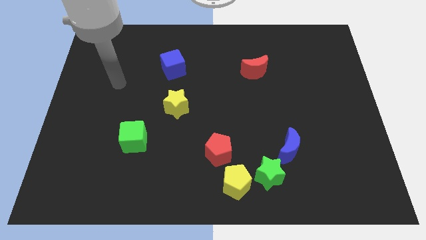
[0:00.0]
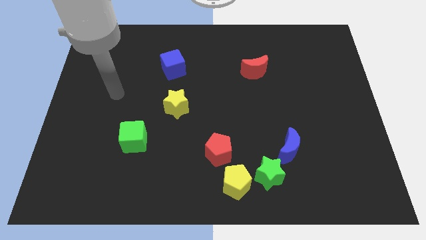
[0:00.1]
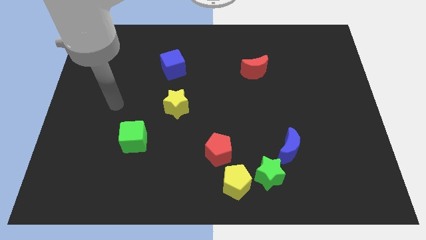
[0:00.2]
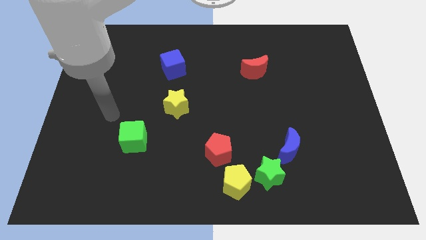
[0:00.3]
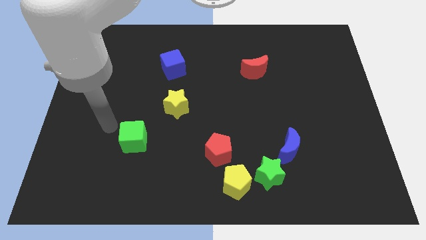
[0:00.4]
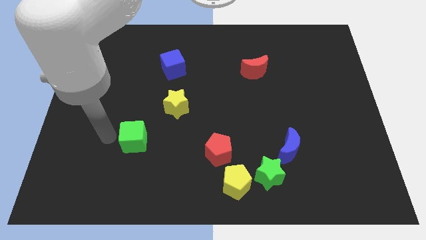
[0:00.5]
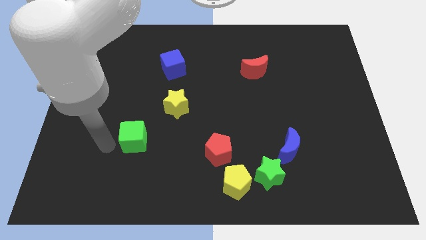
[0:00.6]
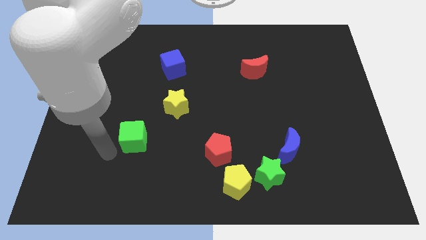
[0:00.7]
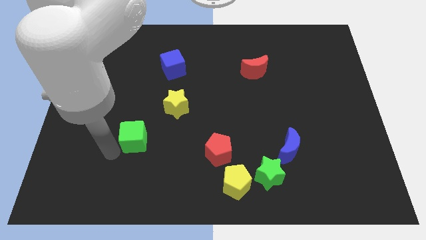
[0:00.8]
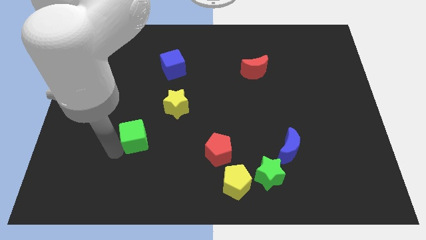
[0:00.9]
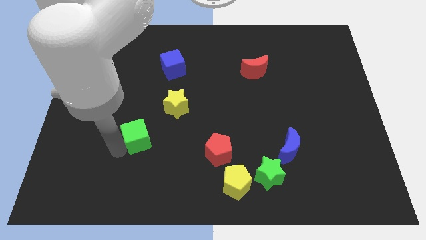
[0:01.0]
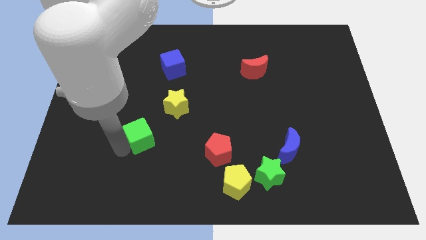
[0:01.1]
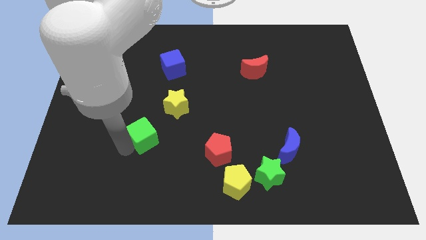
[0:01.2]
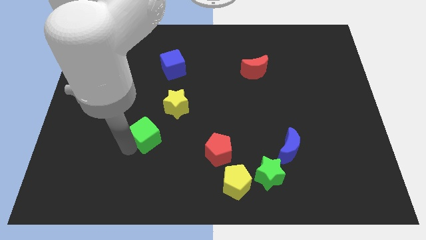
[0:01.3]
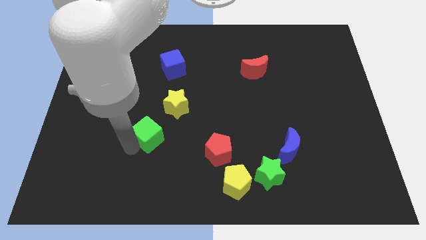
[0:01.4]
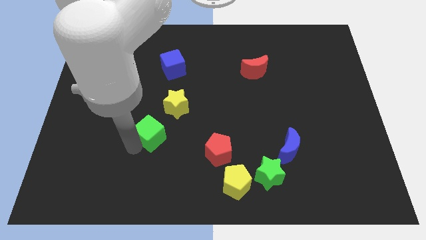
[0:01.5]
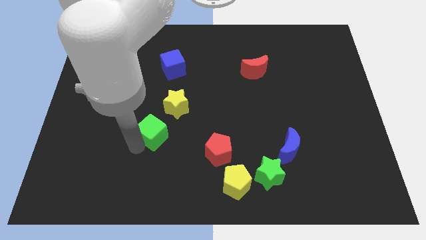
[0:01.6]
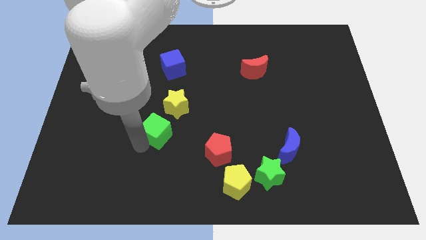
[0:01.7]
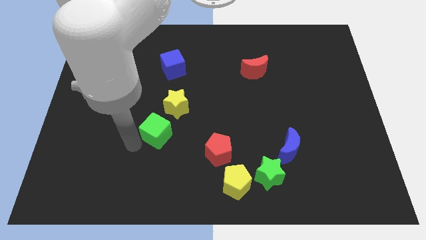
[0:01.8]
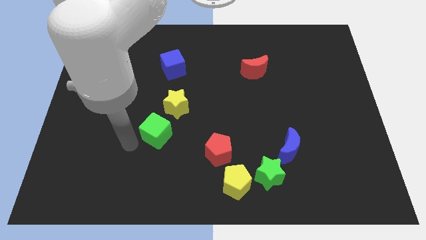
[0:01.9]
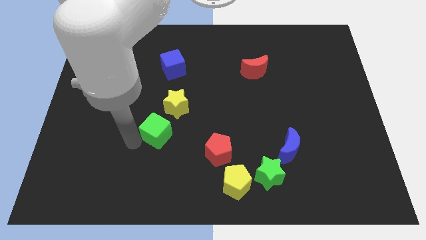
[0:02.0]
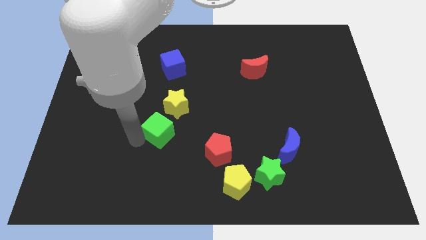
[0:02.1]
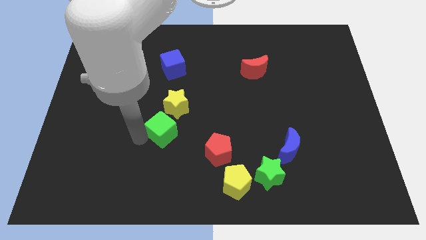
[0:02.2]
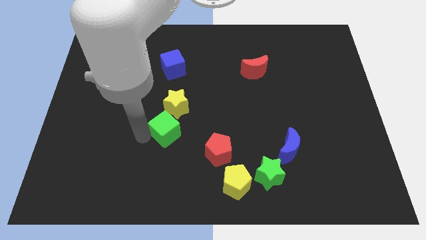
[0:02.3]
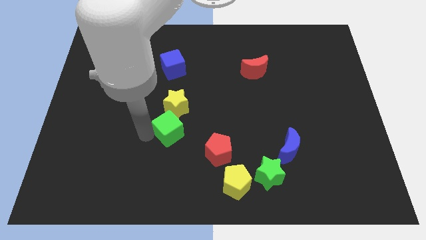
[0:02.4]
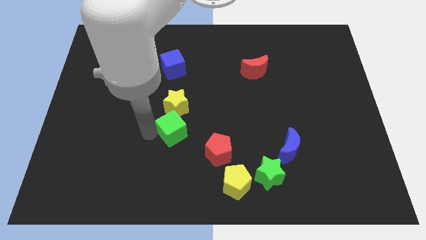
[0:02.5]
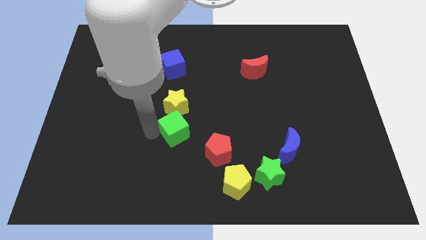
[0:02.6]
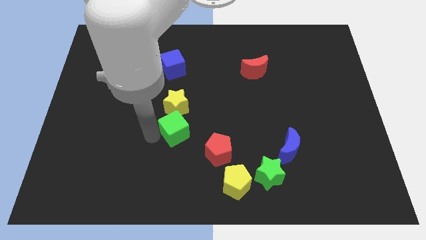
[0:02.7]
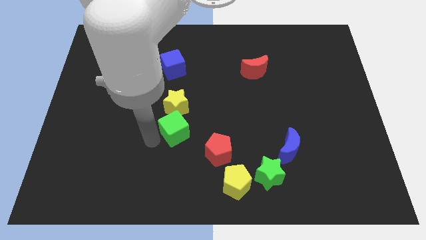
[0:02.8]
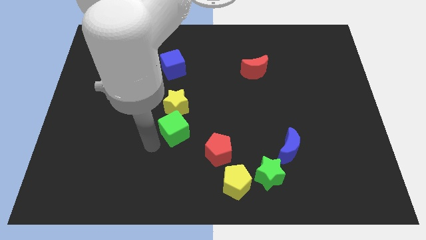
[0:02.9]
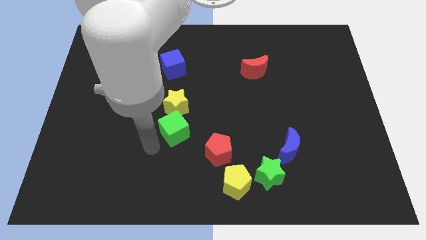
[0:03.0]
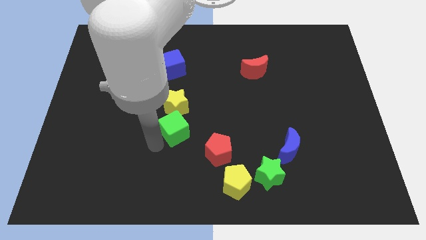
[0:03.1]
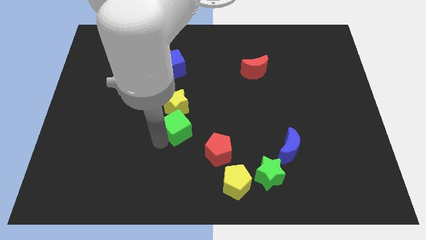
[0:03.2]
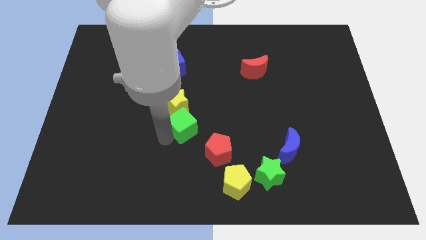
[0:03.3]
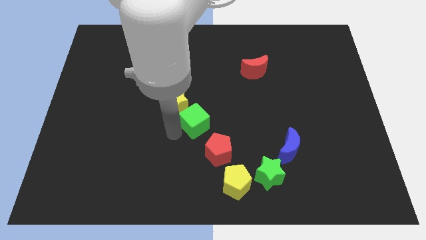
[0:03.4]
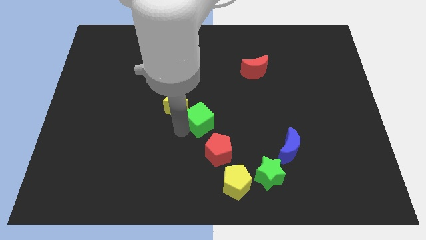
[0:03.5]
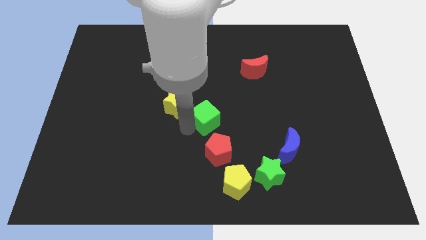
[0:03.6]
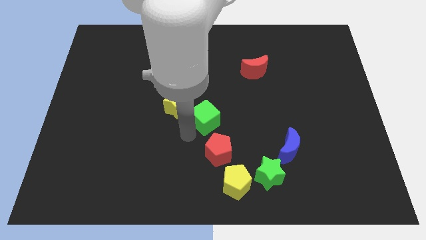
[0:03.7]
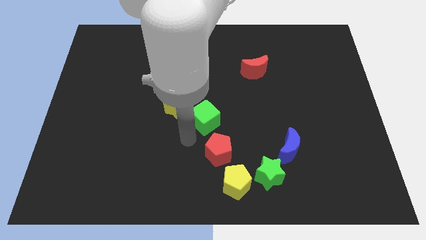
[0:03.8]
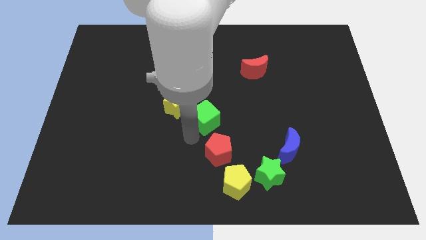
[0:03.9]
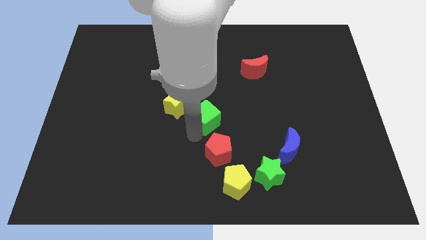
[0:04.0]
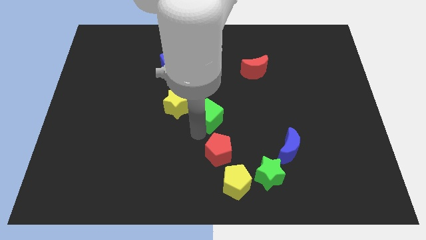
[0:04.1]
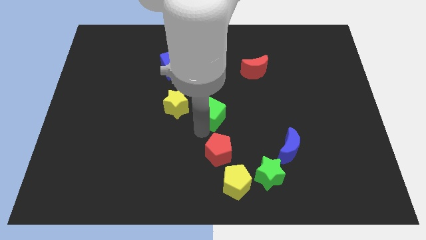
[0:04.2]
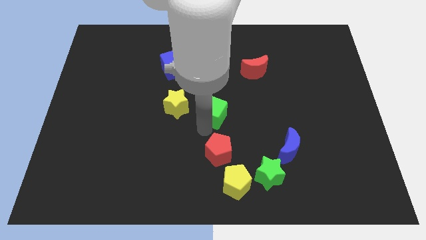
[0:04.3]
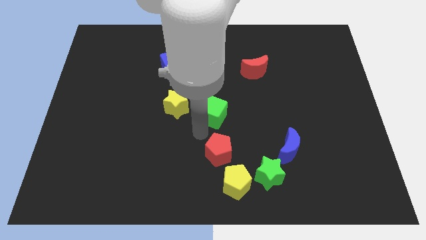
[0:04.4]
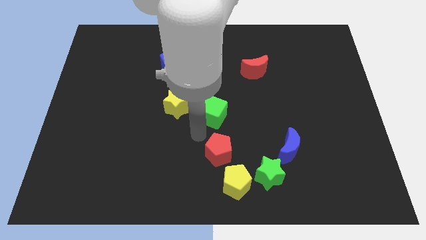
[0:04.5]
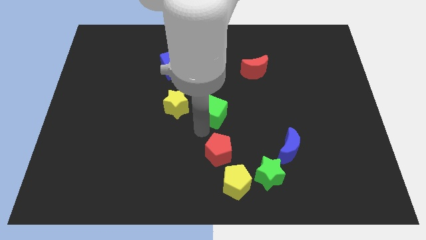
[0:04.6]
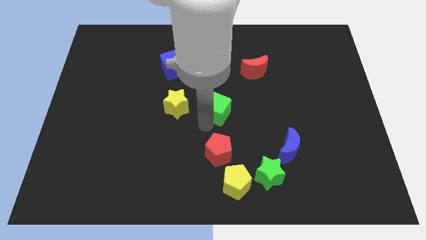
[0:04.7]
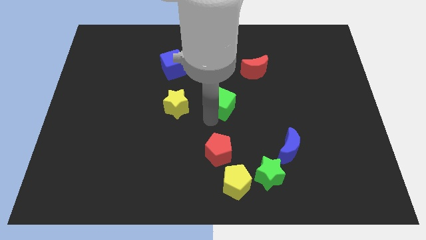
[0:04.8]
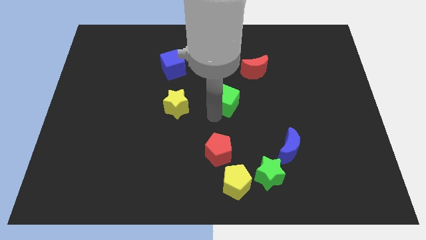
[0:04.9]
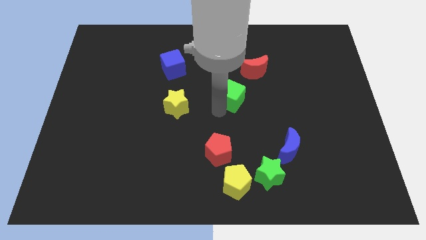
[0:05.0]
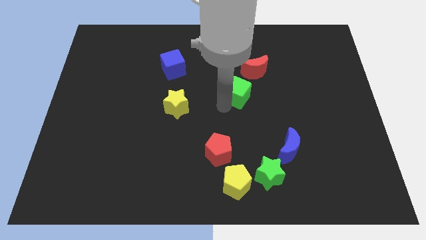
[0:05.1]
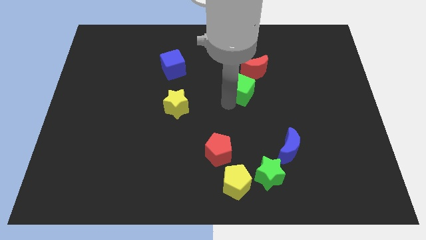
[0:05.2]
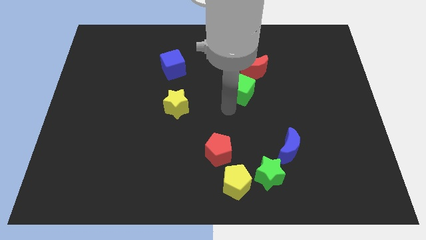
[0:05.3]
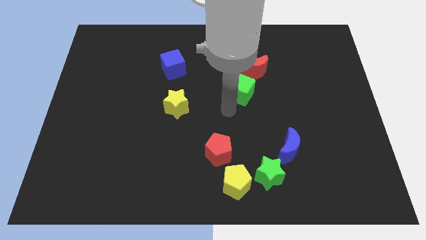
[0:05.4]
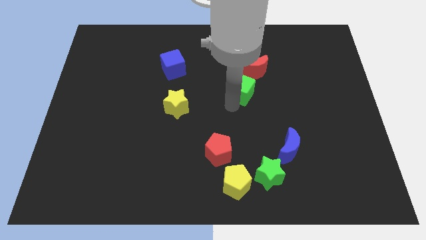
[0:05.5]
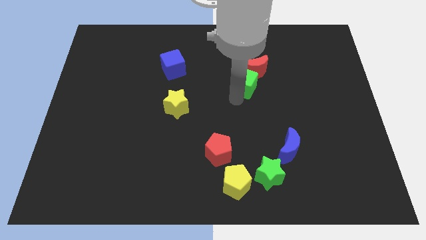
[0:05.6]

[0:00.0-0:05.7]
slide the green cube towards the red moon

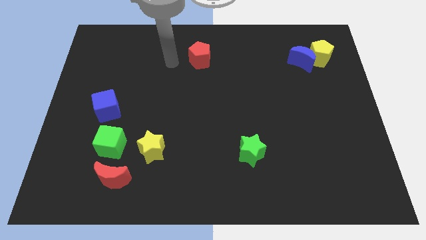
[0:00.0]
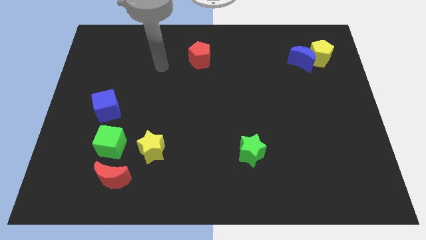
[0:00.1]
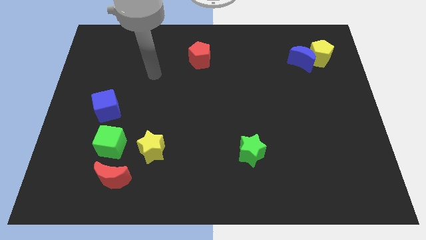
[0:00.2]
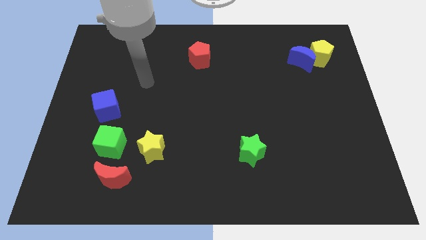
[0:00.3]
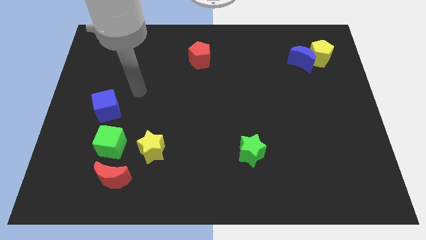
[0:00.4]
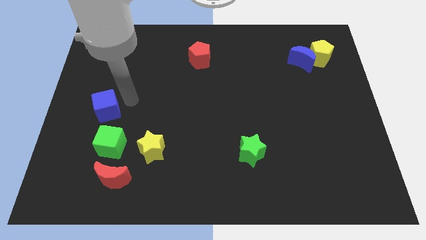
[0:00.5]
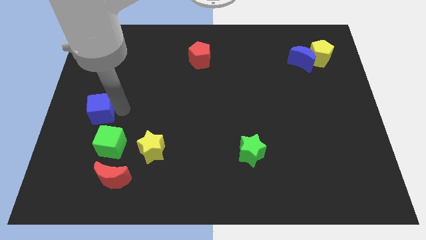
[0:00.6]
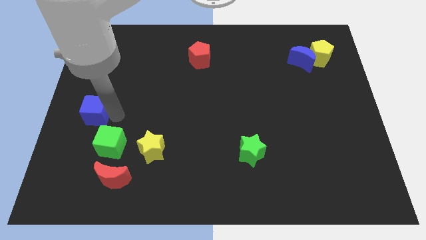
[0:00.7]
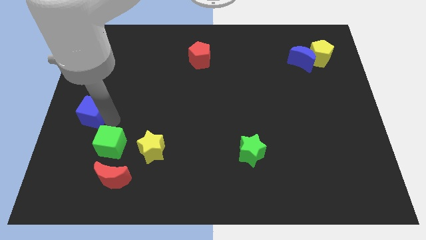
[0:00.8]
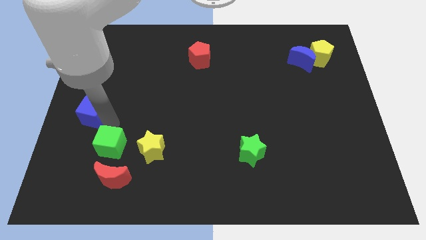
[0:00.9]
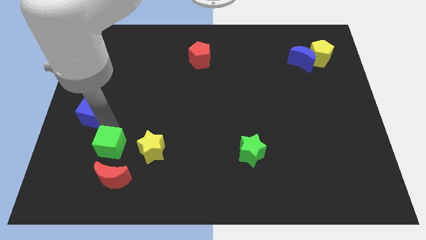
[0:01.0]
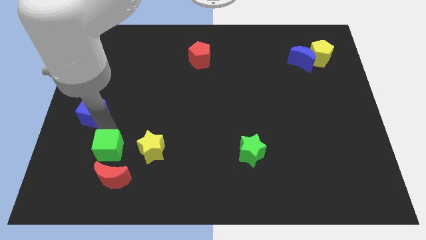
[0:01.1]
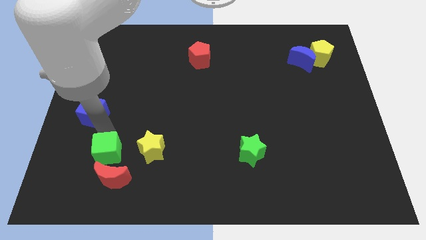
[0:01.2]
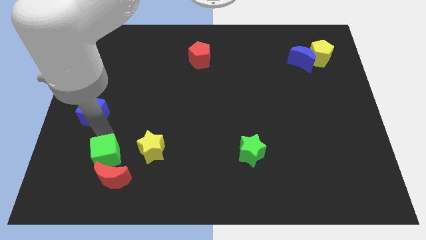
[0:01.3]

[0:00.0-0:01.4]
push the green cube to the red moon
